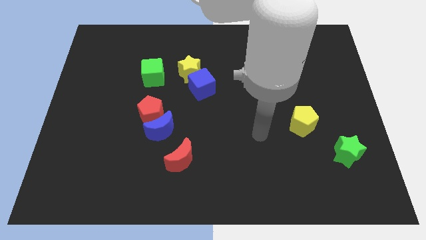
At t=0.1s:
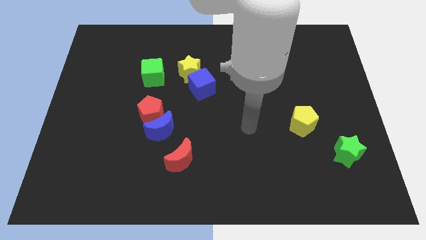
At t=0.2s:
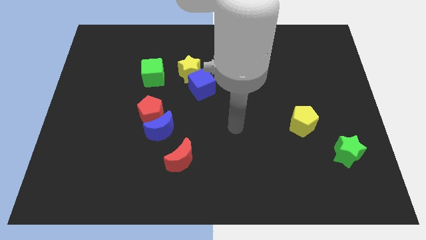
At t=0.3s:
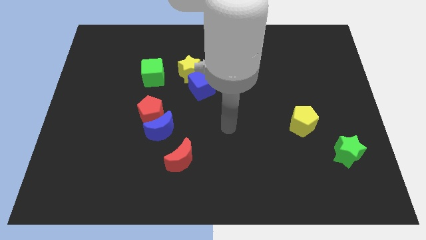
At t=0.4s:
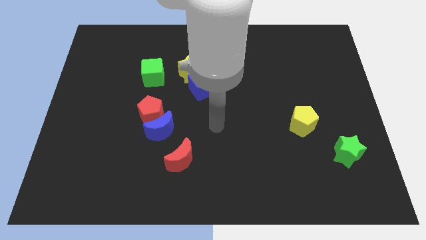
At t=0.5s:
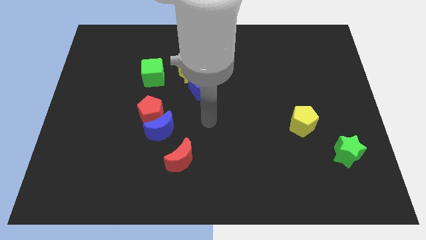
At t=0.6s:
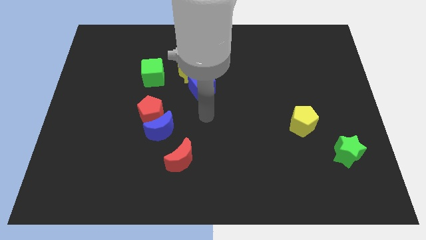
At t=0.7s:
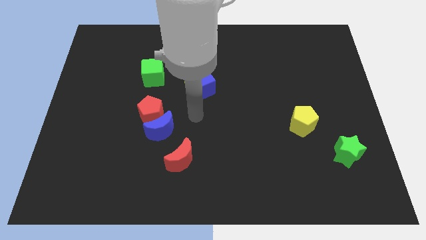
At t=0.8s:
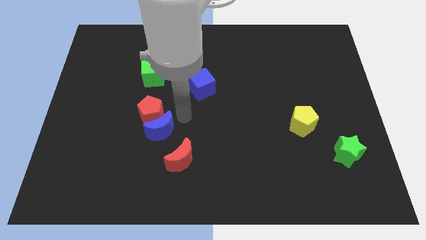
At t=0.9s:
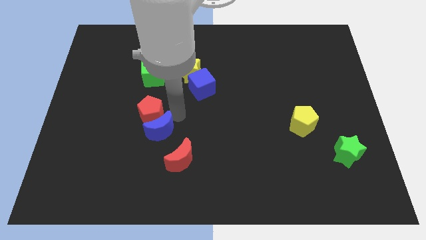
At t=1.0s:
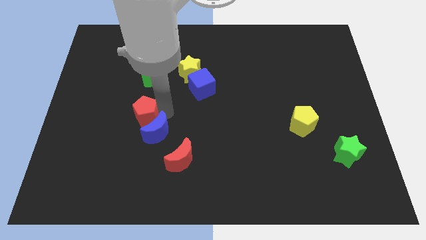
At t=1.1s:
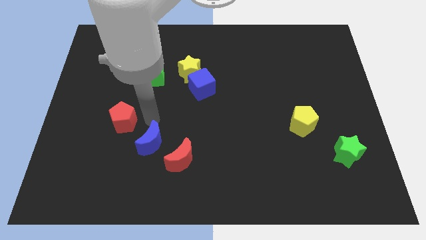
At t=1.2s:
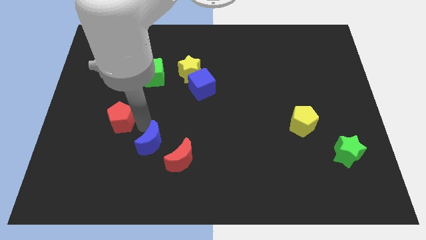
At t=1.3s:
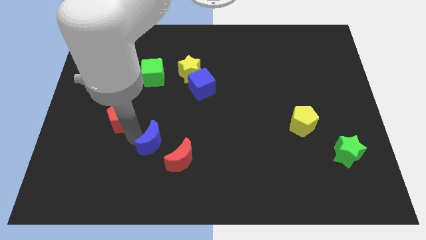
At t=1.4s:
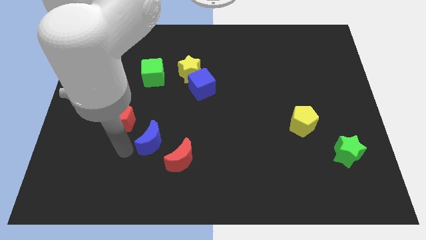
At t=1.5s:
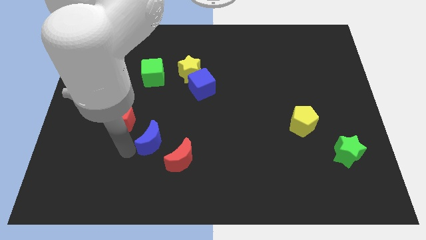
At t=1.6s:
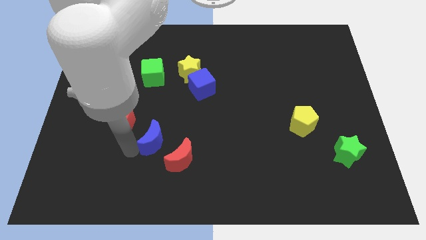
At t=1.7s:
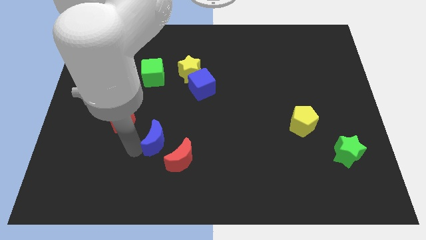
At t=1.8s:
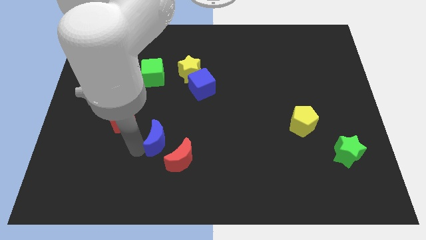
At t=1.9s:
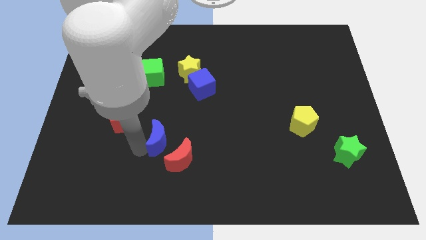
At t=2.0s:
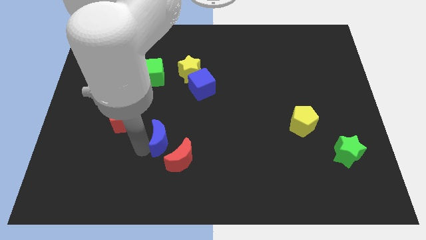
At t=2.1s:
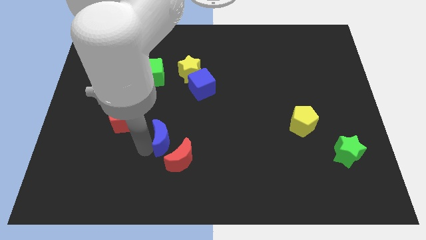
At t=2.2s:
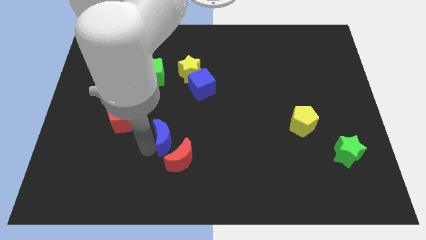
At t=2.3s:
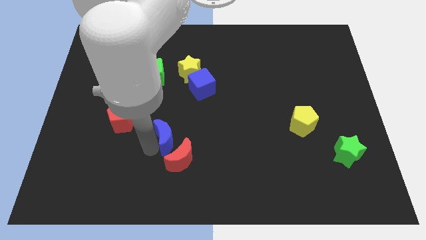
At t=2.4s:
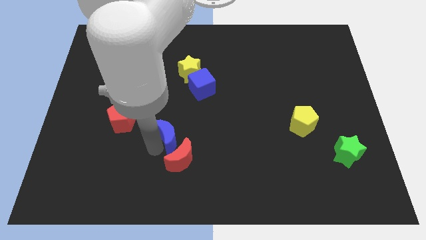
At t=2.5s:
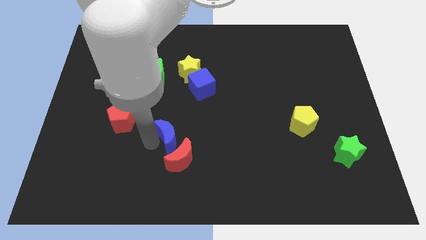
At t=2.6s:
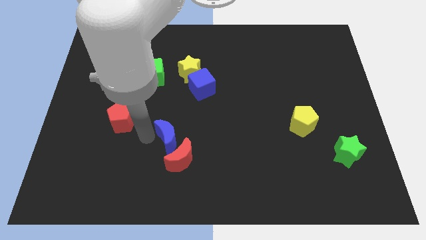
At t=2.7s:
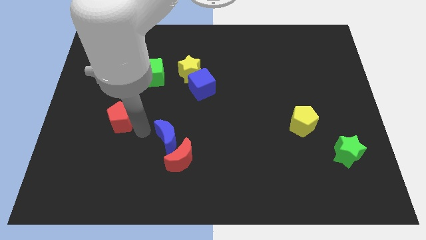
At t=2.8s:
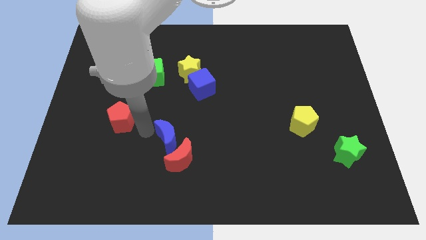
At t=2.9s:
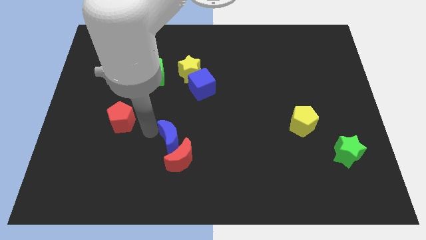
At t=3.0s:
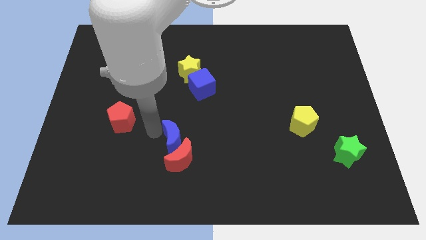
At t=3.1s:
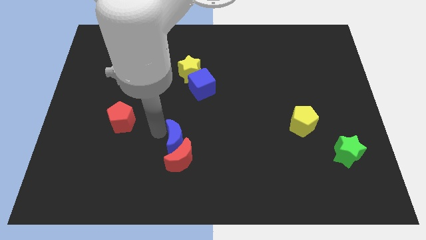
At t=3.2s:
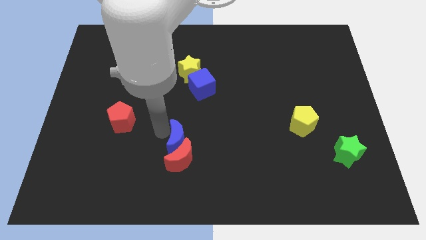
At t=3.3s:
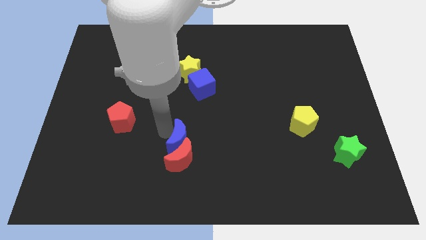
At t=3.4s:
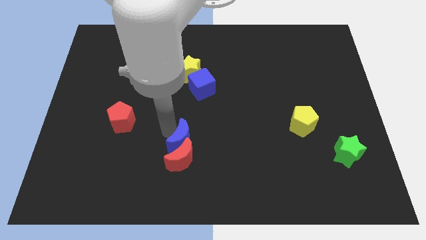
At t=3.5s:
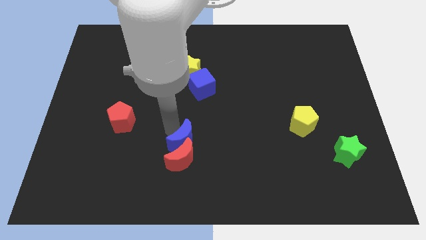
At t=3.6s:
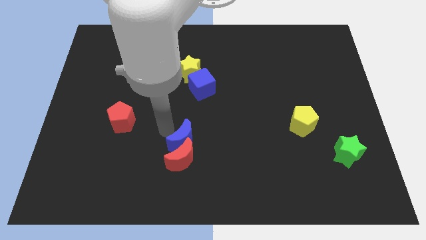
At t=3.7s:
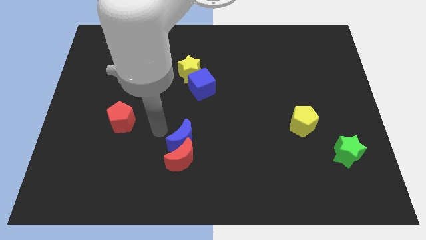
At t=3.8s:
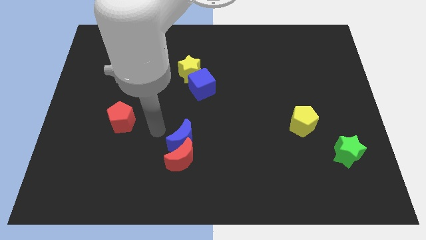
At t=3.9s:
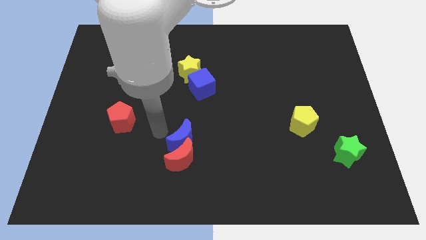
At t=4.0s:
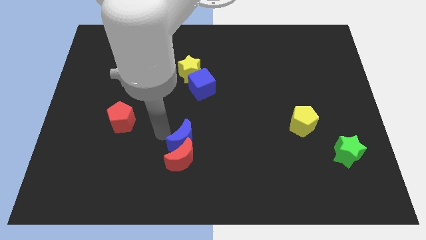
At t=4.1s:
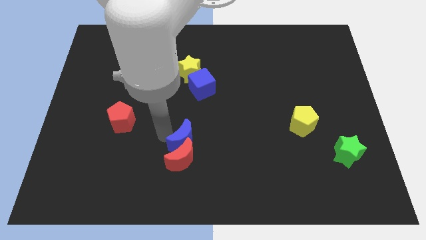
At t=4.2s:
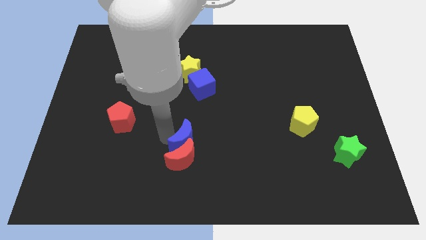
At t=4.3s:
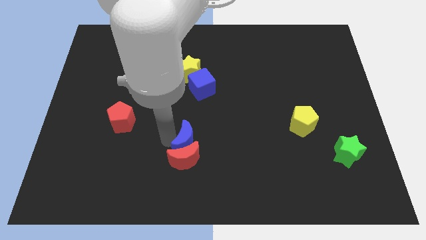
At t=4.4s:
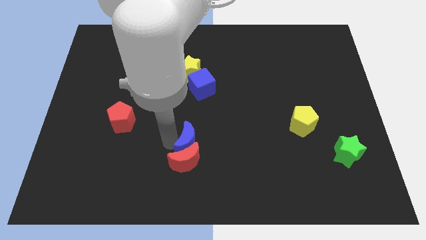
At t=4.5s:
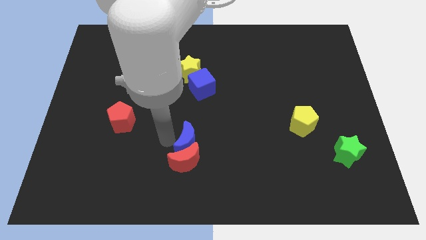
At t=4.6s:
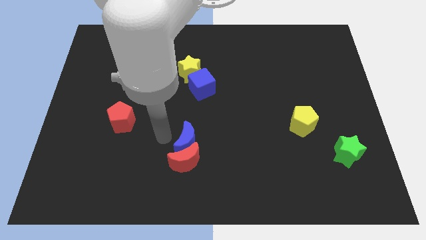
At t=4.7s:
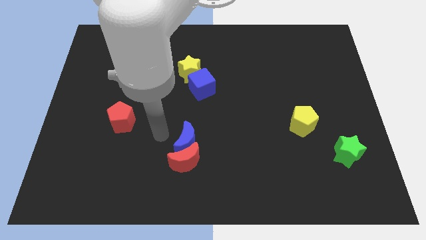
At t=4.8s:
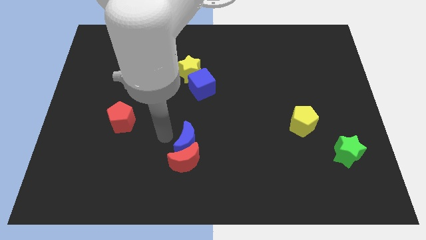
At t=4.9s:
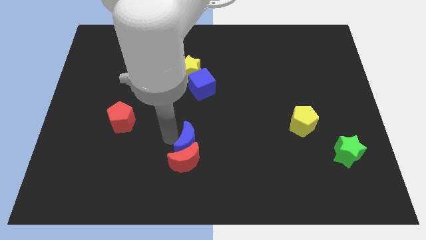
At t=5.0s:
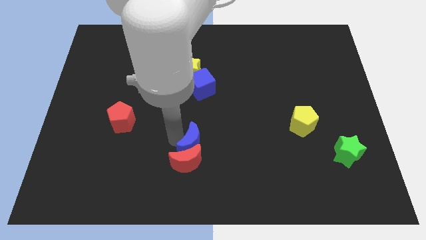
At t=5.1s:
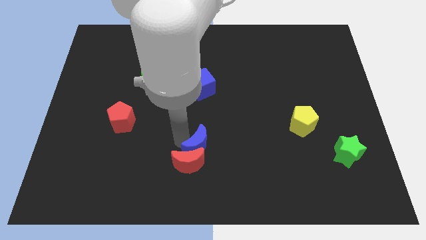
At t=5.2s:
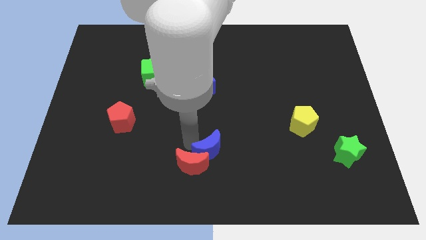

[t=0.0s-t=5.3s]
move the blue moon to the right side of the red moon

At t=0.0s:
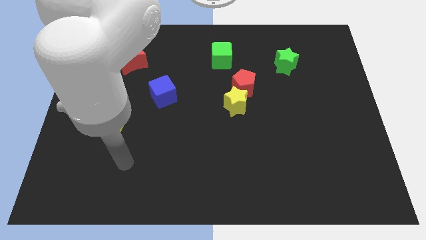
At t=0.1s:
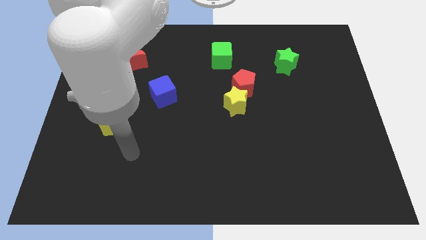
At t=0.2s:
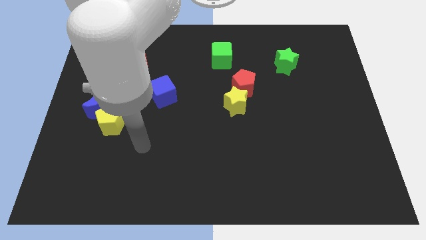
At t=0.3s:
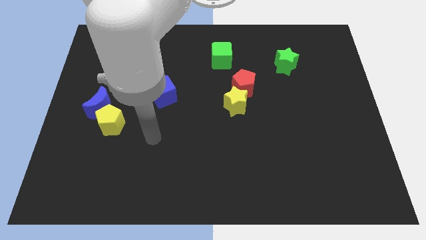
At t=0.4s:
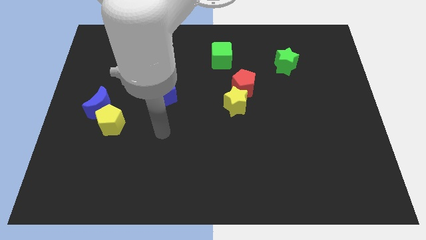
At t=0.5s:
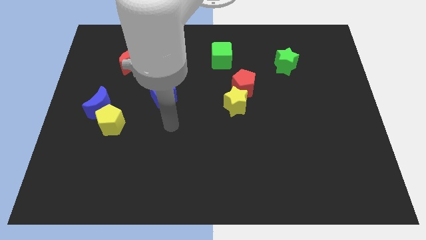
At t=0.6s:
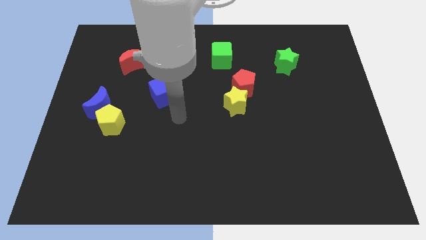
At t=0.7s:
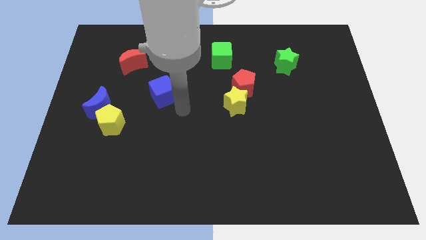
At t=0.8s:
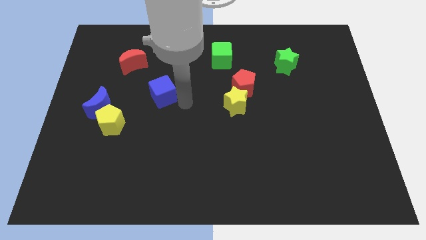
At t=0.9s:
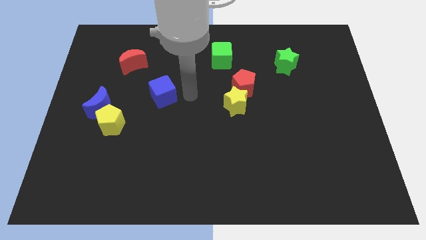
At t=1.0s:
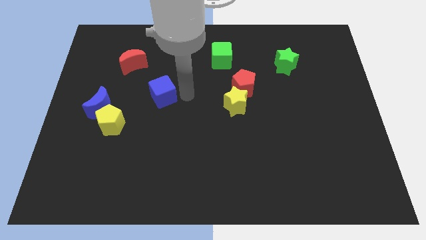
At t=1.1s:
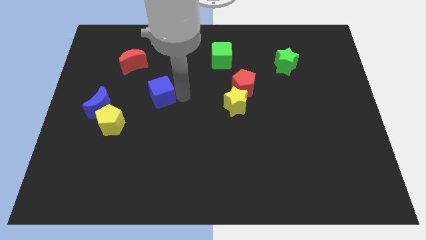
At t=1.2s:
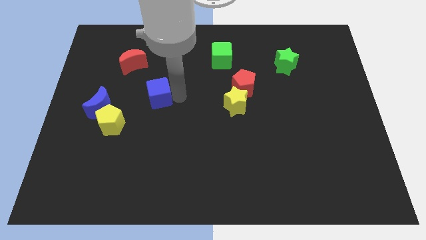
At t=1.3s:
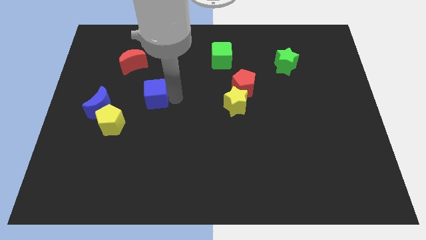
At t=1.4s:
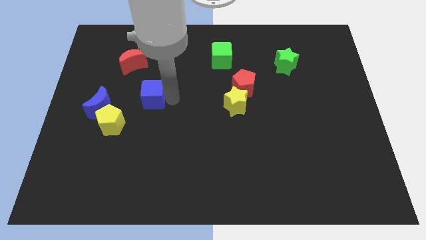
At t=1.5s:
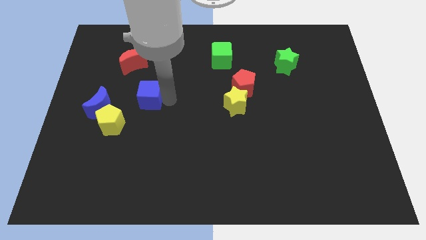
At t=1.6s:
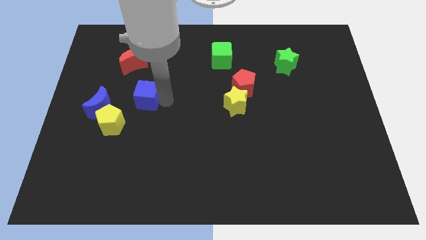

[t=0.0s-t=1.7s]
move the blue cube below the red moon
